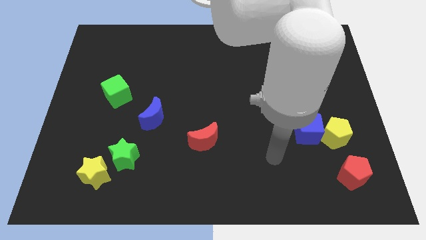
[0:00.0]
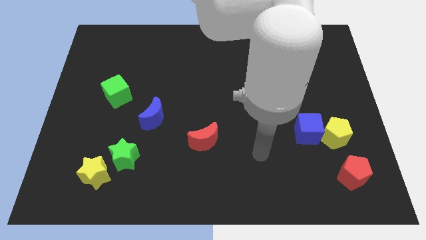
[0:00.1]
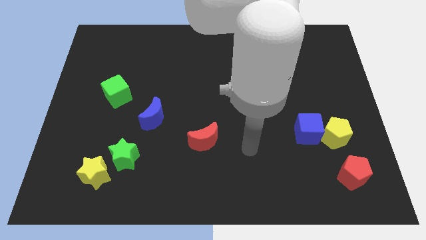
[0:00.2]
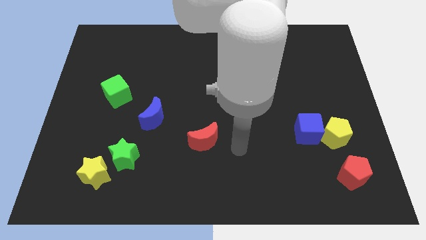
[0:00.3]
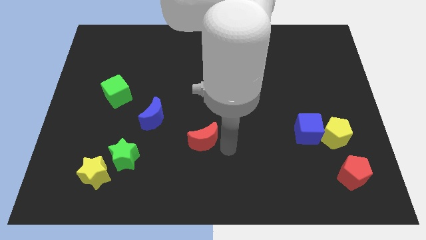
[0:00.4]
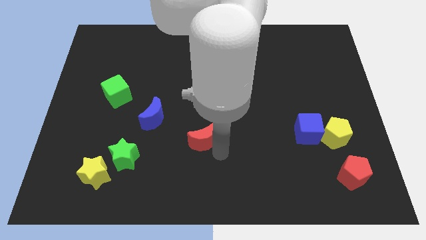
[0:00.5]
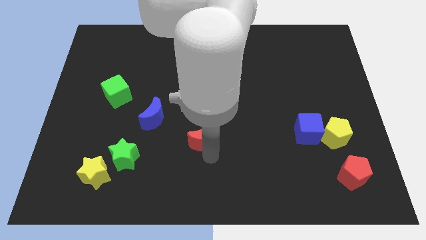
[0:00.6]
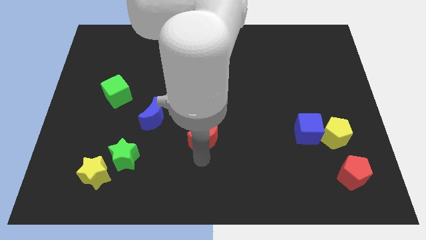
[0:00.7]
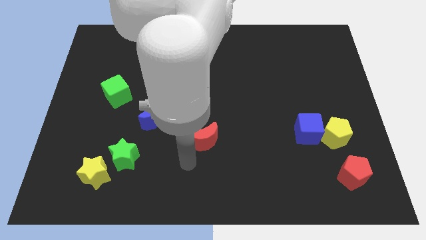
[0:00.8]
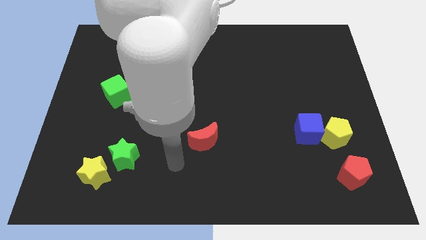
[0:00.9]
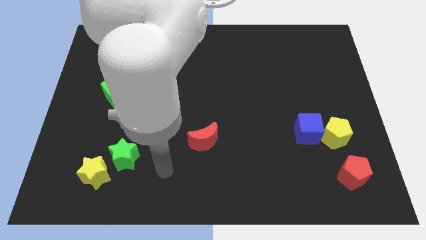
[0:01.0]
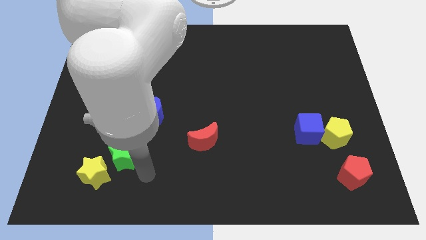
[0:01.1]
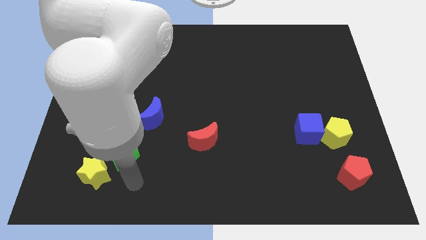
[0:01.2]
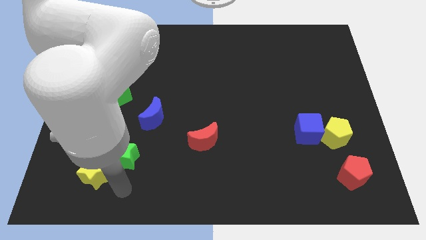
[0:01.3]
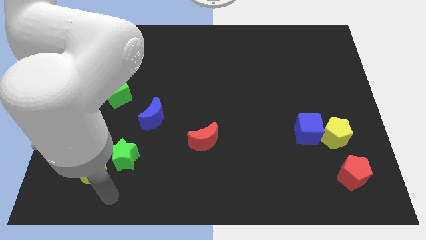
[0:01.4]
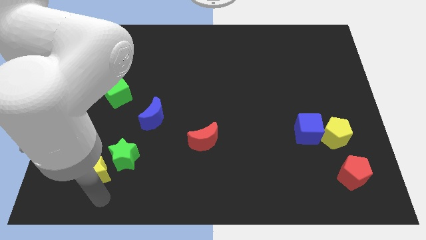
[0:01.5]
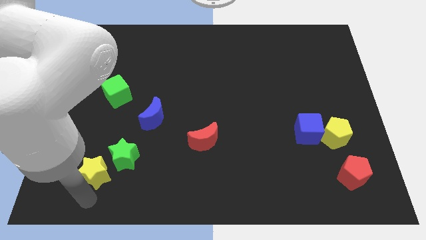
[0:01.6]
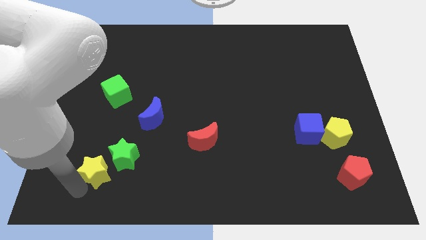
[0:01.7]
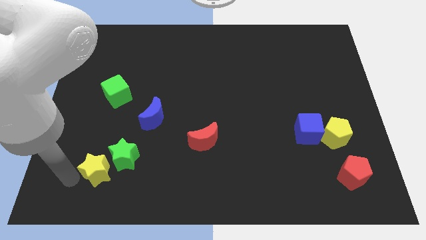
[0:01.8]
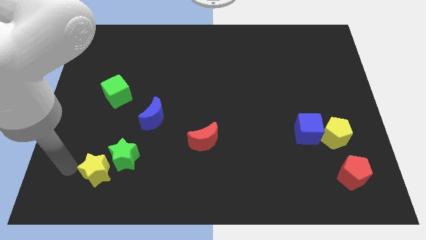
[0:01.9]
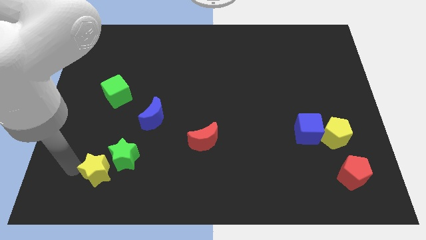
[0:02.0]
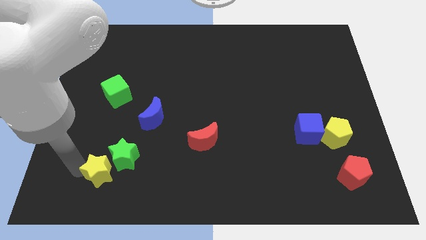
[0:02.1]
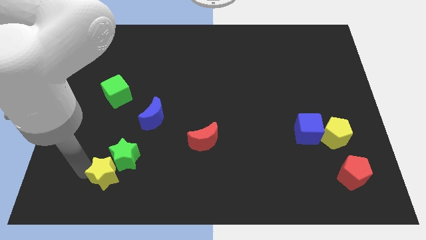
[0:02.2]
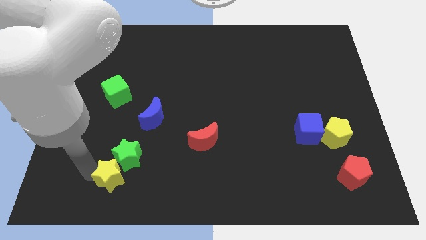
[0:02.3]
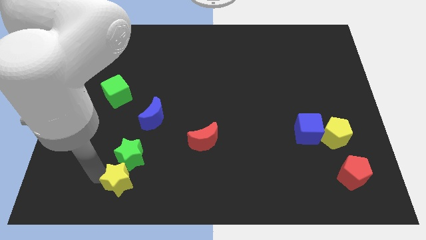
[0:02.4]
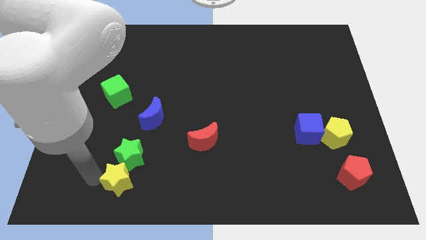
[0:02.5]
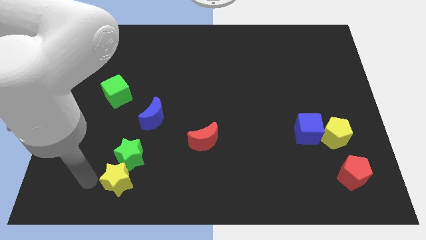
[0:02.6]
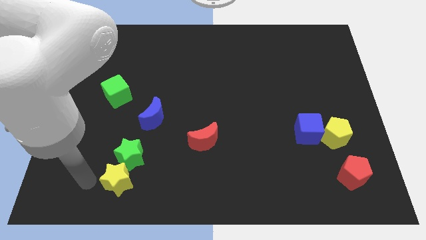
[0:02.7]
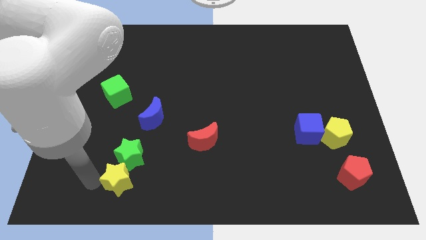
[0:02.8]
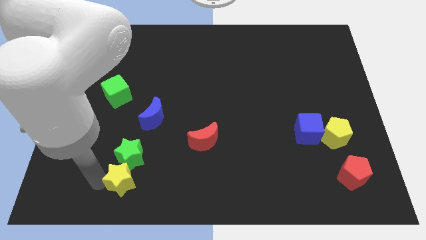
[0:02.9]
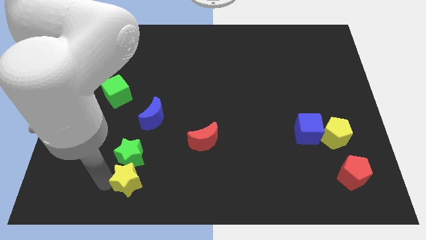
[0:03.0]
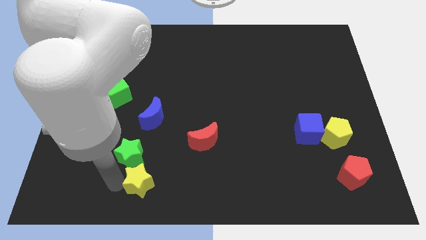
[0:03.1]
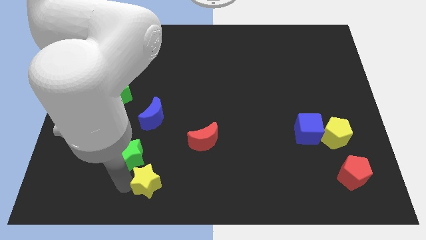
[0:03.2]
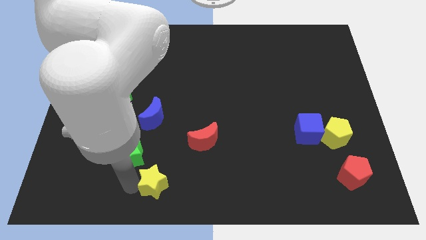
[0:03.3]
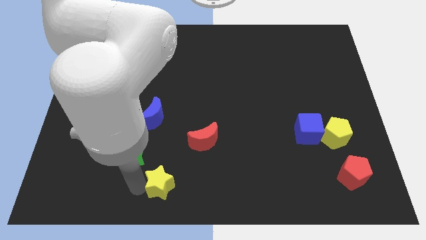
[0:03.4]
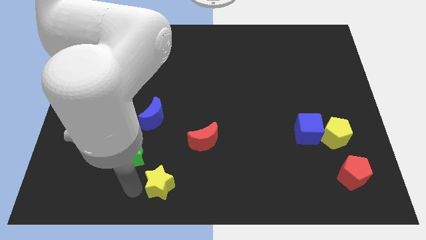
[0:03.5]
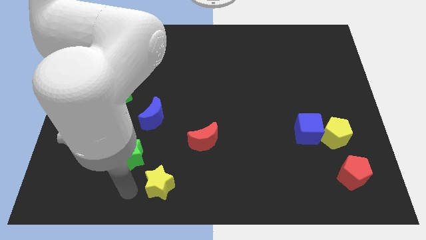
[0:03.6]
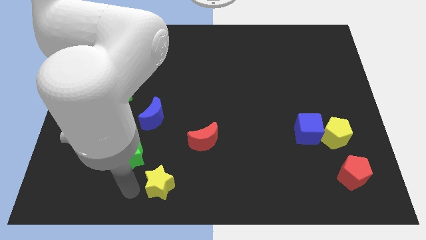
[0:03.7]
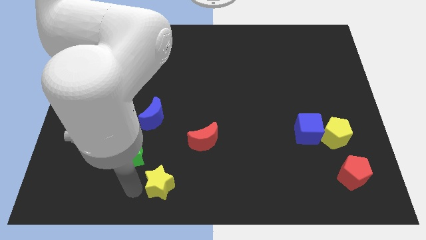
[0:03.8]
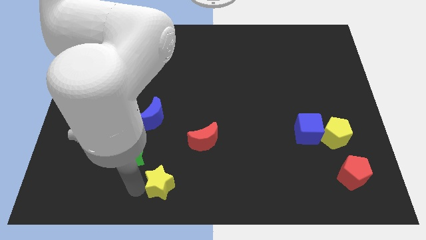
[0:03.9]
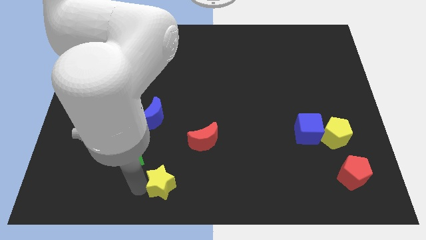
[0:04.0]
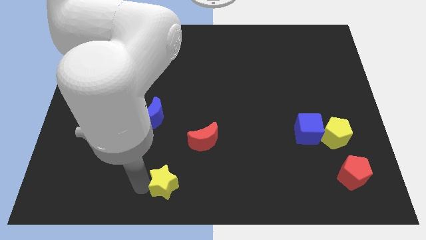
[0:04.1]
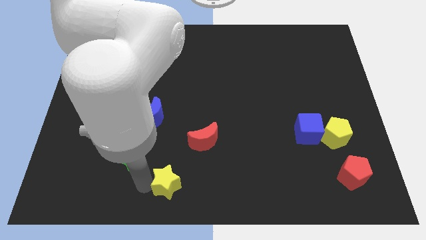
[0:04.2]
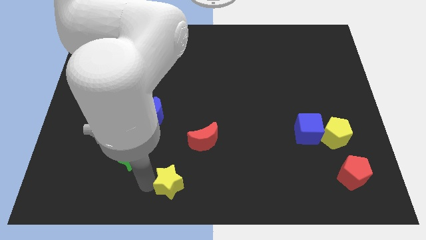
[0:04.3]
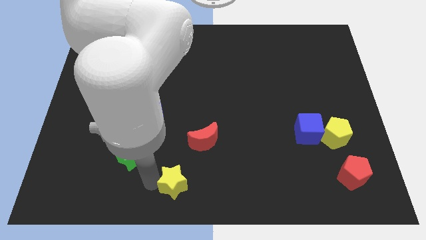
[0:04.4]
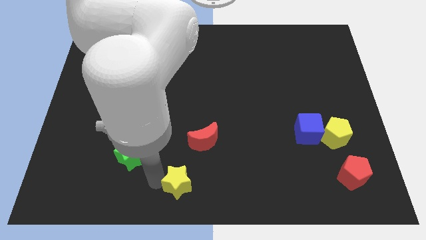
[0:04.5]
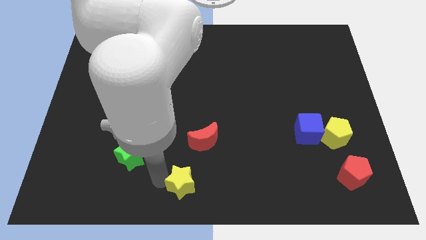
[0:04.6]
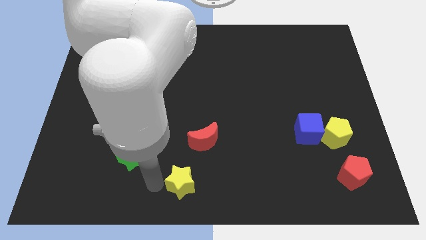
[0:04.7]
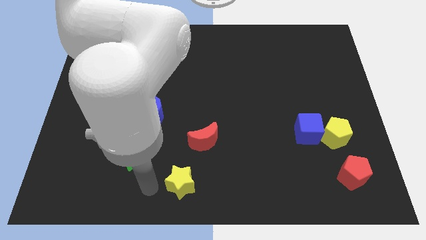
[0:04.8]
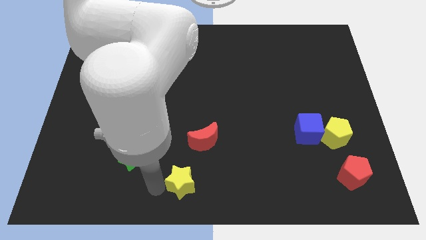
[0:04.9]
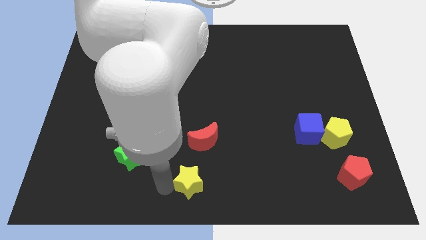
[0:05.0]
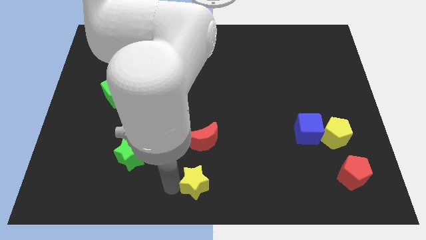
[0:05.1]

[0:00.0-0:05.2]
move the yellow star to the right

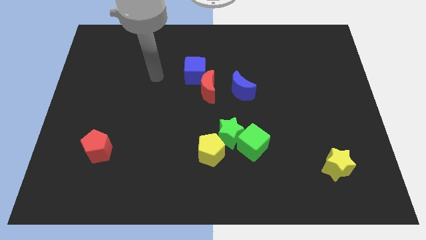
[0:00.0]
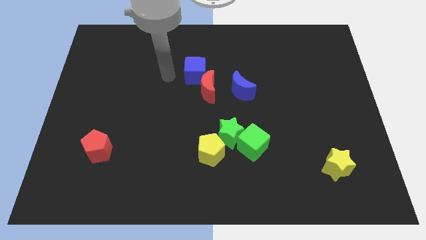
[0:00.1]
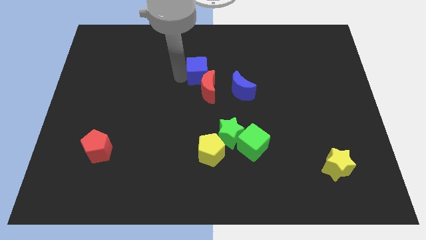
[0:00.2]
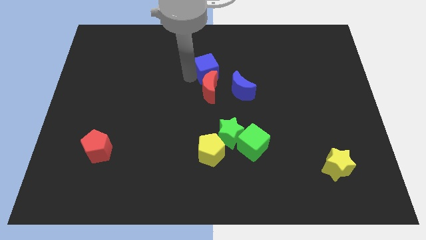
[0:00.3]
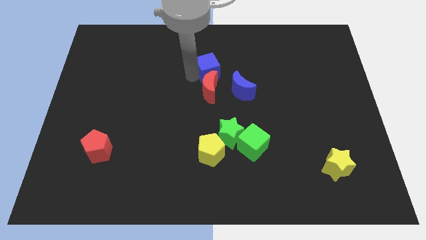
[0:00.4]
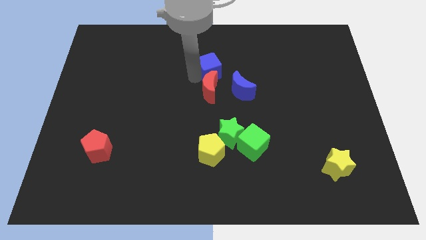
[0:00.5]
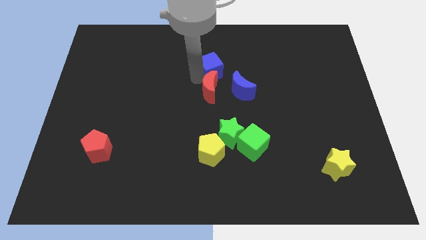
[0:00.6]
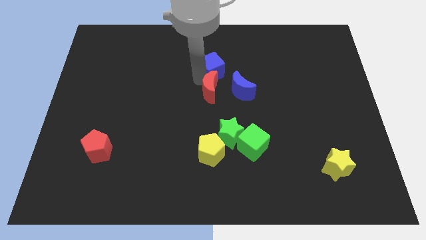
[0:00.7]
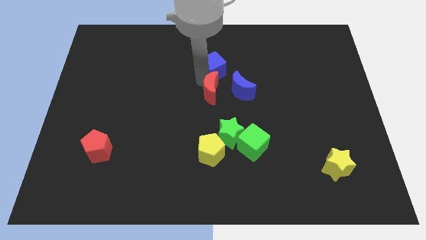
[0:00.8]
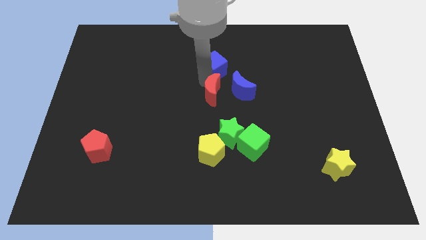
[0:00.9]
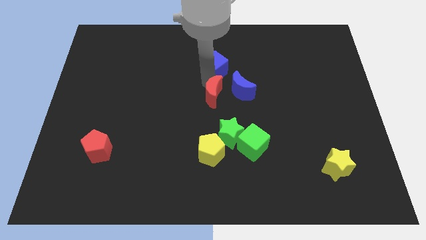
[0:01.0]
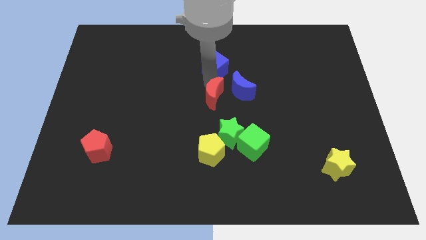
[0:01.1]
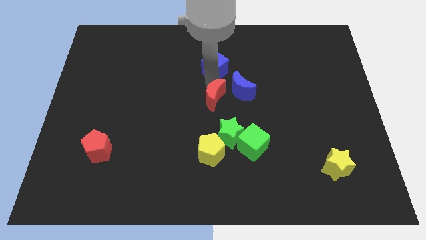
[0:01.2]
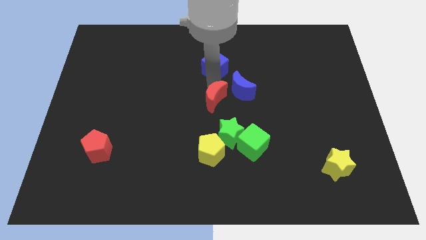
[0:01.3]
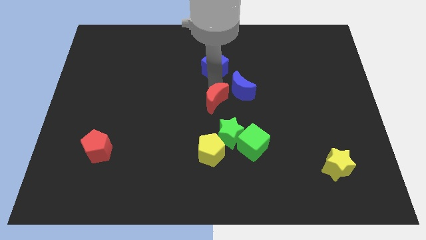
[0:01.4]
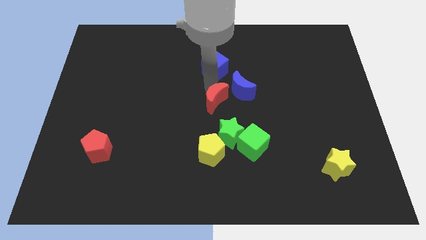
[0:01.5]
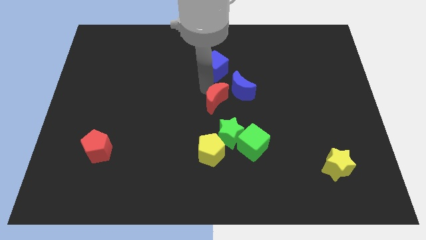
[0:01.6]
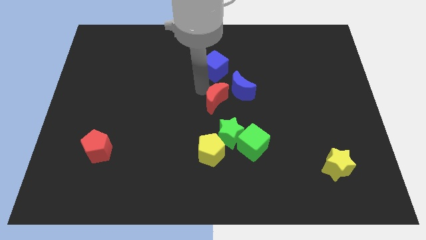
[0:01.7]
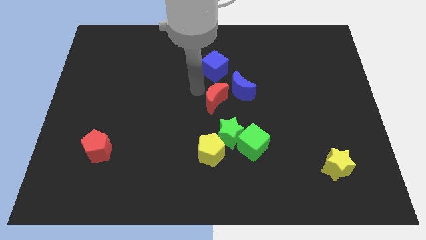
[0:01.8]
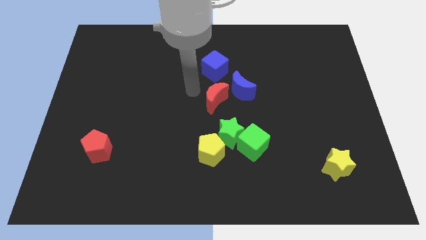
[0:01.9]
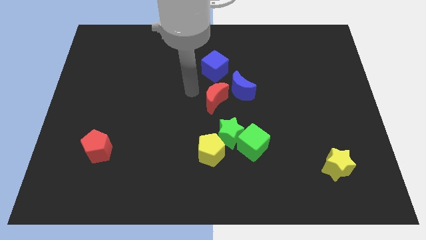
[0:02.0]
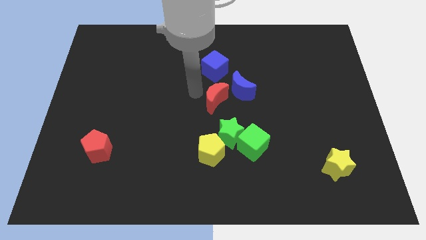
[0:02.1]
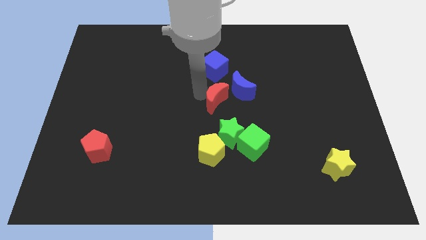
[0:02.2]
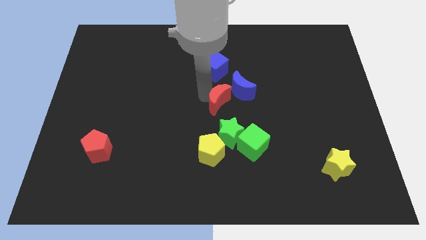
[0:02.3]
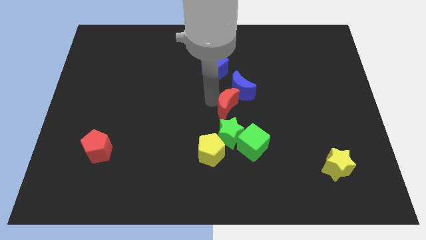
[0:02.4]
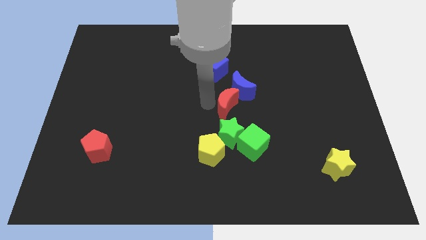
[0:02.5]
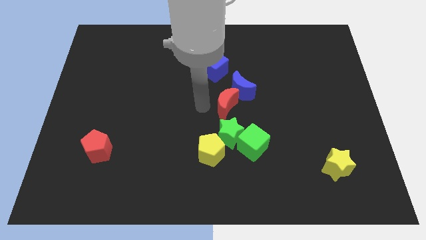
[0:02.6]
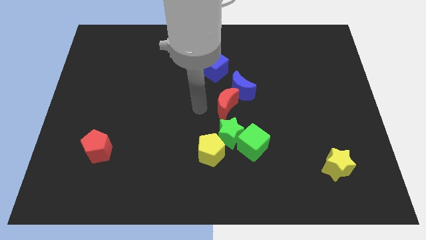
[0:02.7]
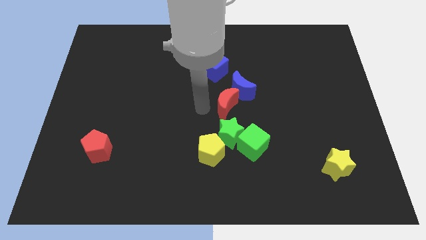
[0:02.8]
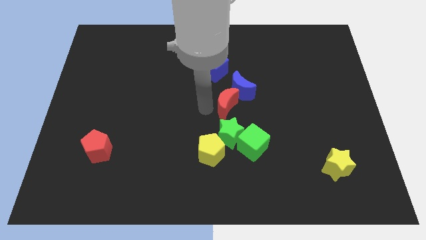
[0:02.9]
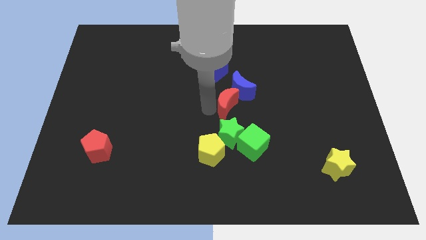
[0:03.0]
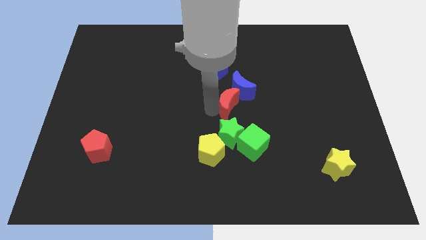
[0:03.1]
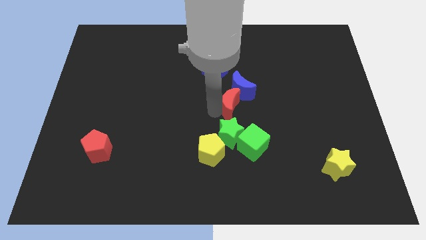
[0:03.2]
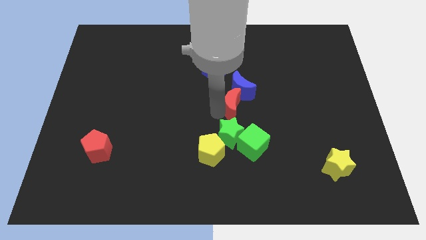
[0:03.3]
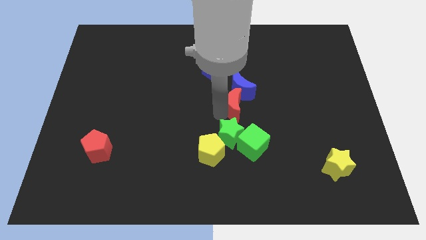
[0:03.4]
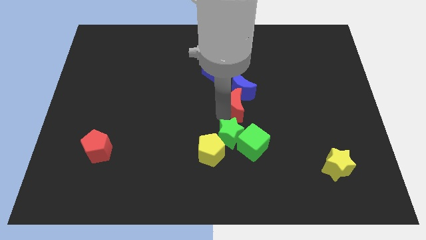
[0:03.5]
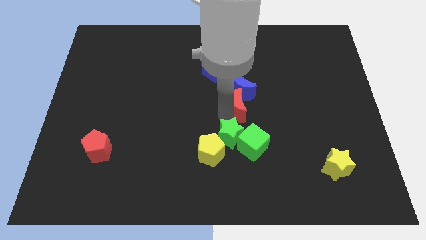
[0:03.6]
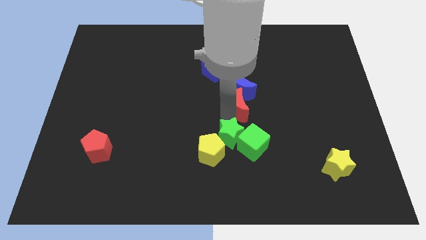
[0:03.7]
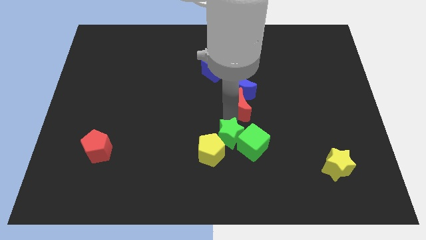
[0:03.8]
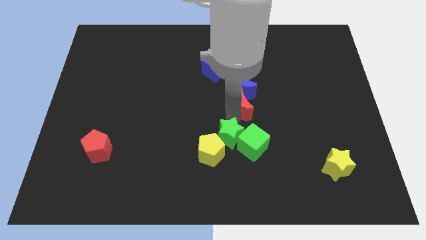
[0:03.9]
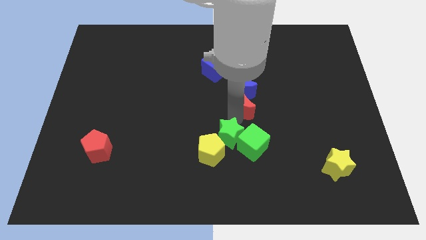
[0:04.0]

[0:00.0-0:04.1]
slightly push the red moon to the right
